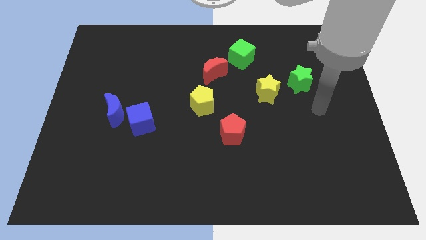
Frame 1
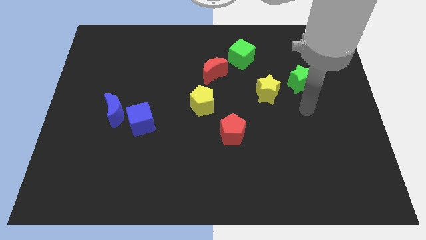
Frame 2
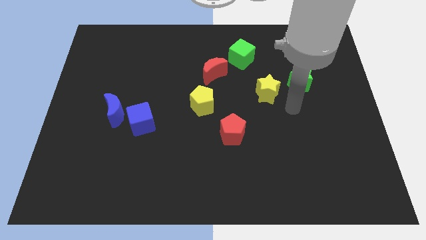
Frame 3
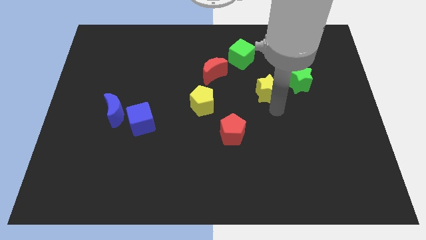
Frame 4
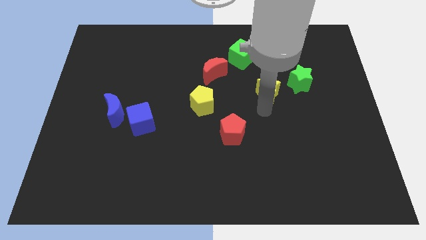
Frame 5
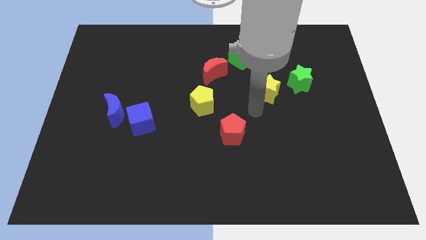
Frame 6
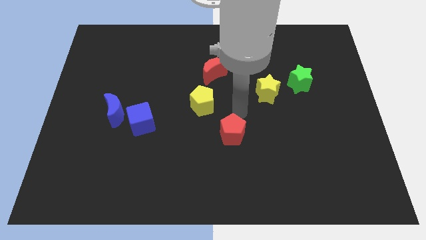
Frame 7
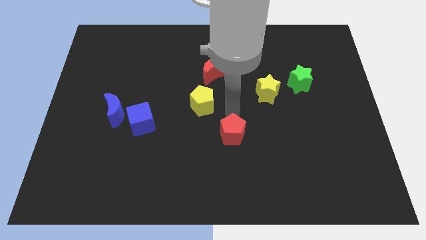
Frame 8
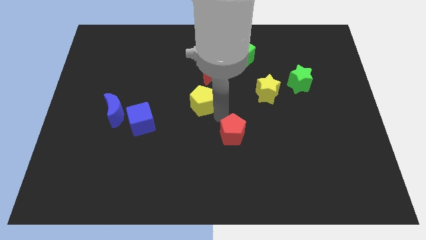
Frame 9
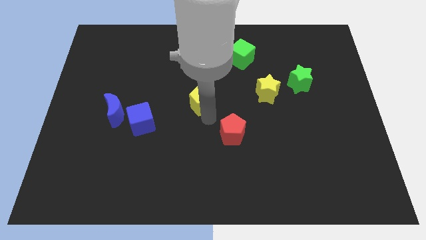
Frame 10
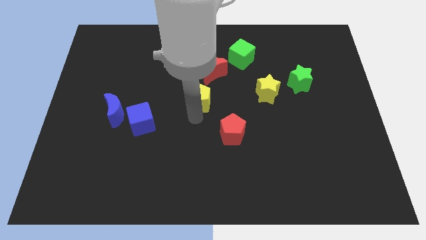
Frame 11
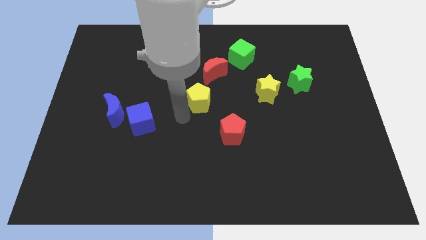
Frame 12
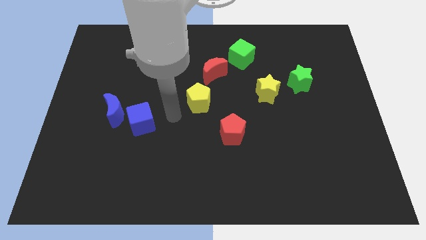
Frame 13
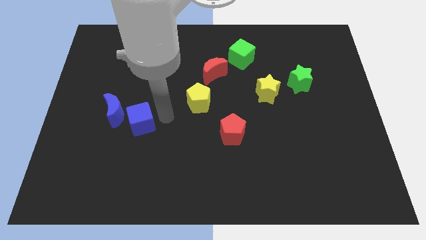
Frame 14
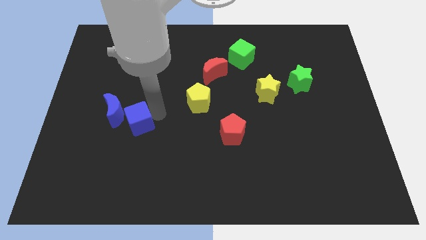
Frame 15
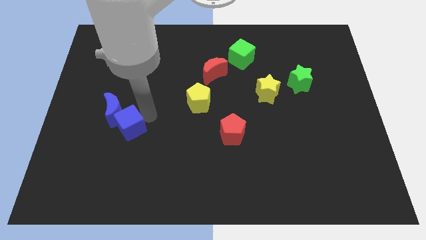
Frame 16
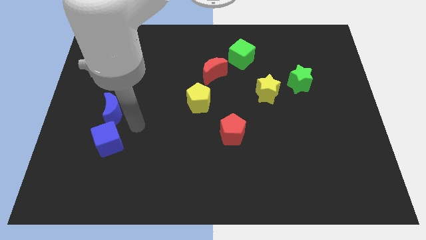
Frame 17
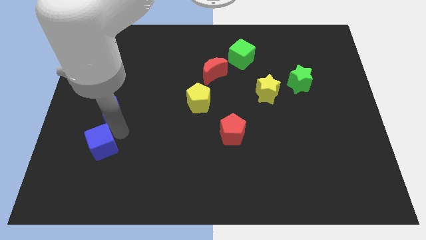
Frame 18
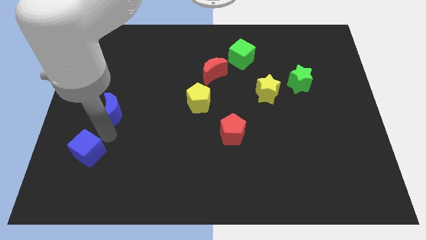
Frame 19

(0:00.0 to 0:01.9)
move the blue moon away from the blue cube

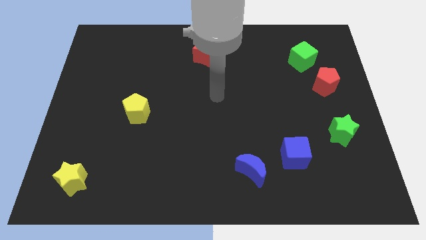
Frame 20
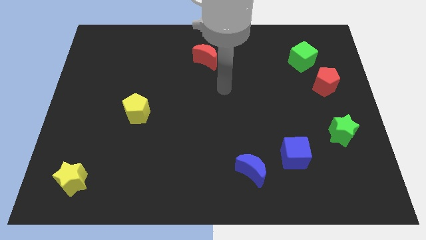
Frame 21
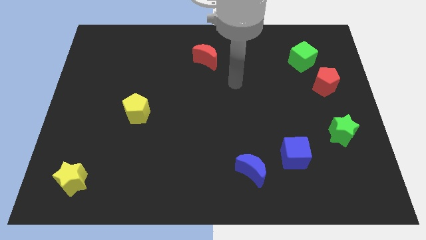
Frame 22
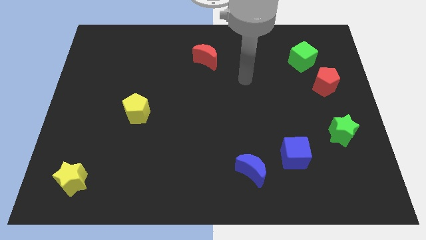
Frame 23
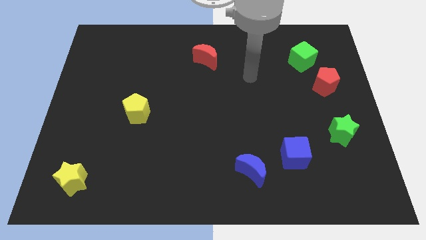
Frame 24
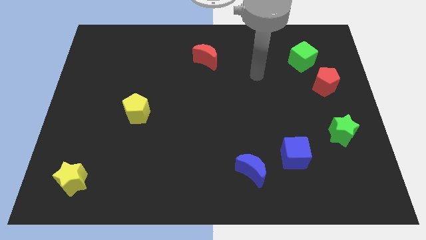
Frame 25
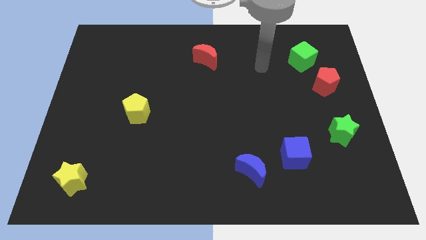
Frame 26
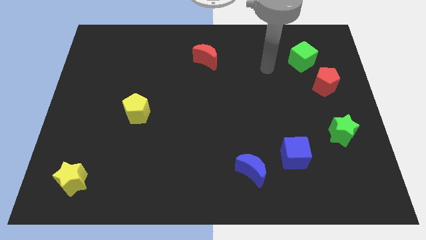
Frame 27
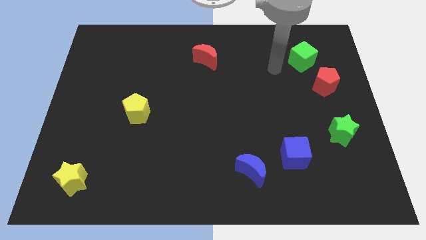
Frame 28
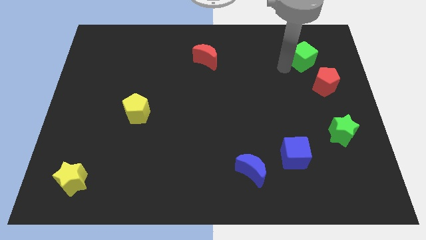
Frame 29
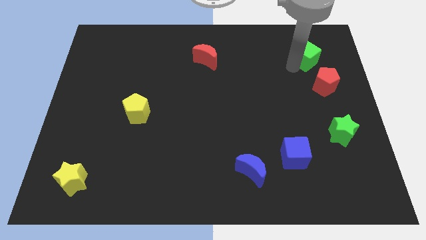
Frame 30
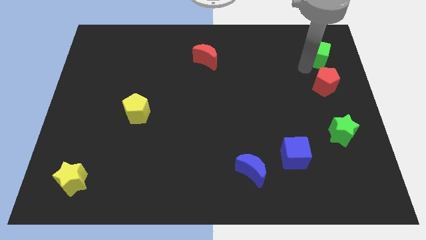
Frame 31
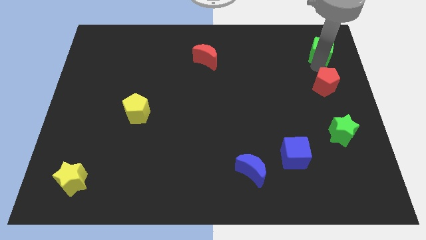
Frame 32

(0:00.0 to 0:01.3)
pull the red pentagon apart from the green cube

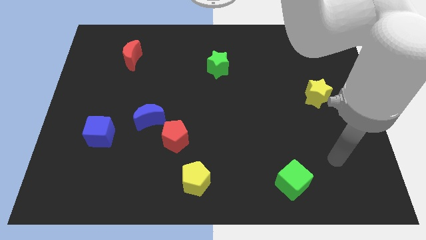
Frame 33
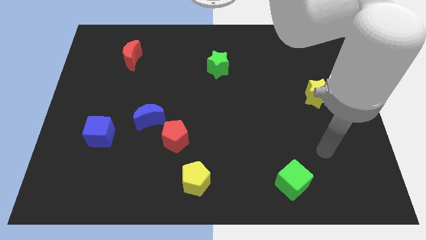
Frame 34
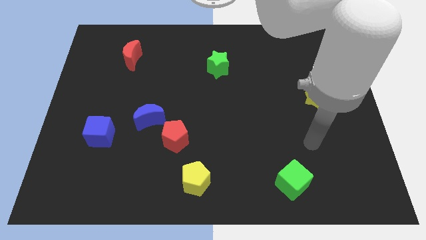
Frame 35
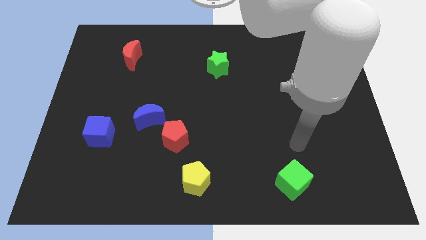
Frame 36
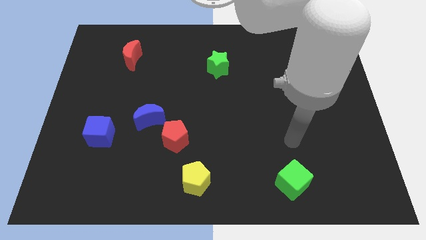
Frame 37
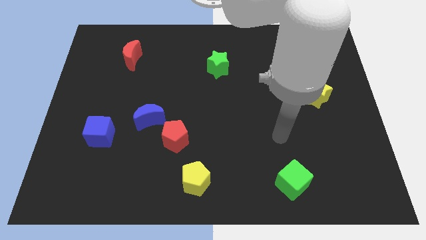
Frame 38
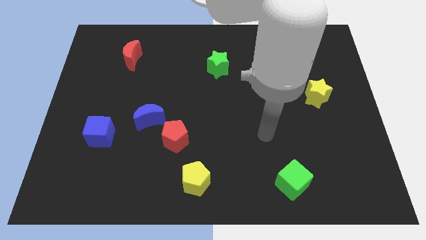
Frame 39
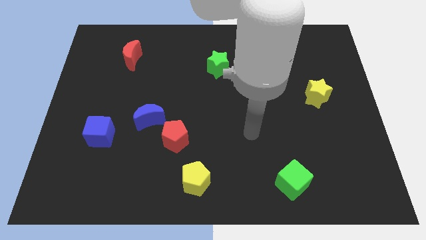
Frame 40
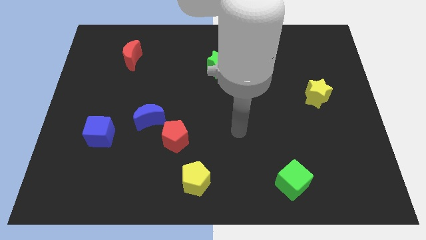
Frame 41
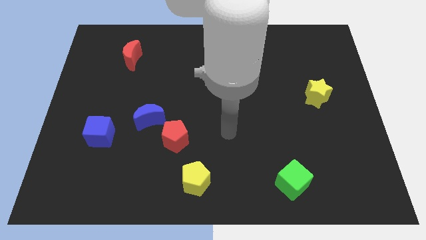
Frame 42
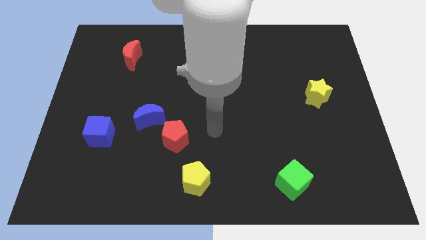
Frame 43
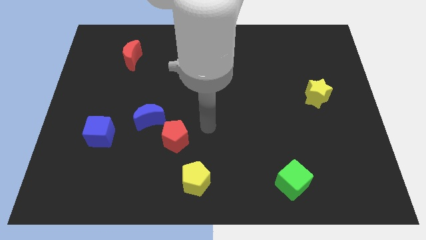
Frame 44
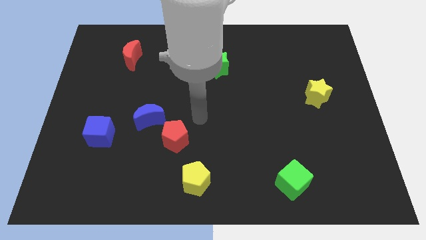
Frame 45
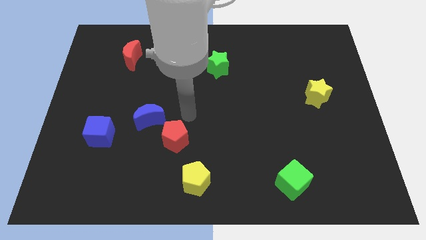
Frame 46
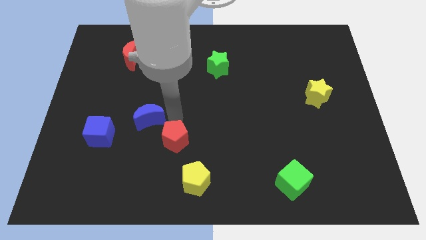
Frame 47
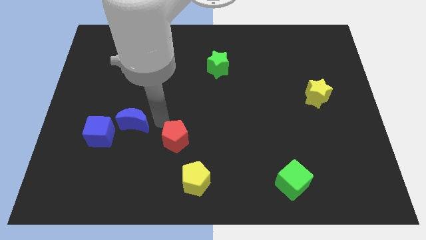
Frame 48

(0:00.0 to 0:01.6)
pull the red pentagon apart from the blue moon

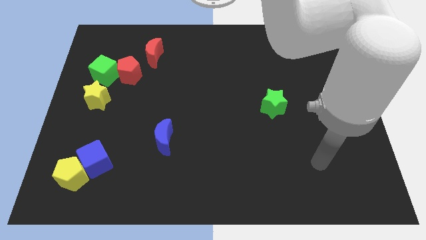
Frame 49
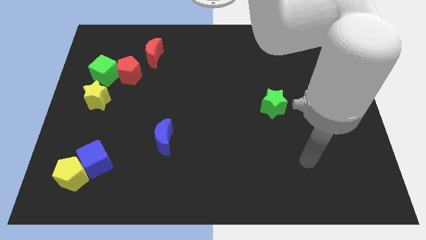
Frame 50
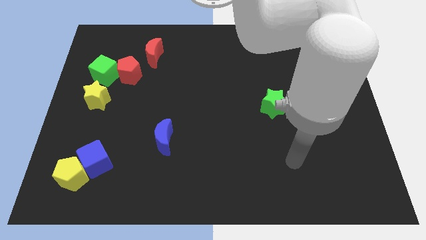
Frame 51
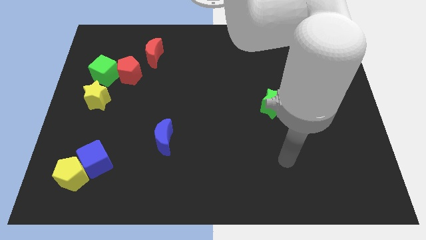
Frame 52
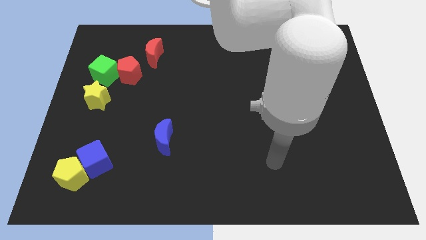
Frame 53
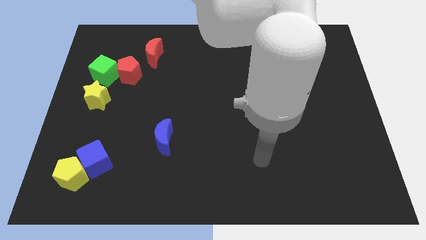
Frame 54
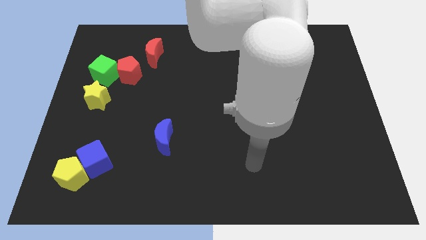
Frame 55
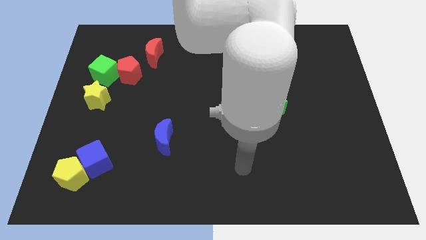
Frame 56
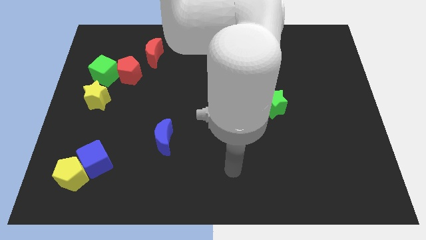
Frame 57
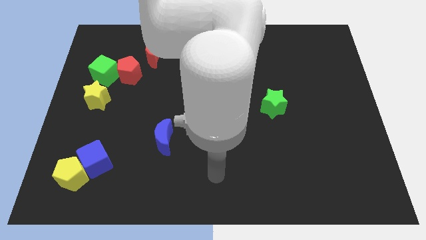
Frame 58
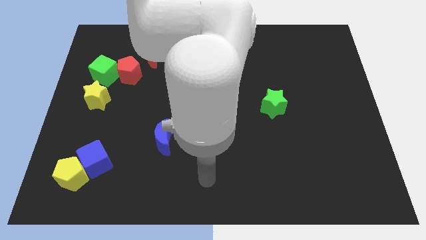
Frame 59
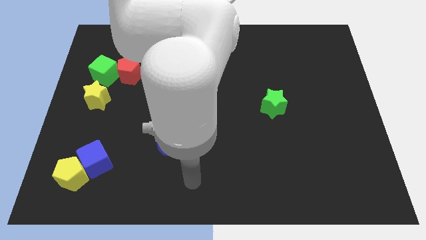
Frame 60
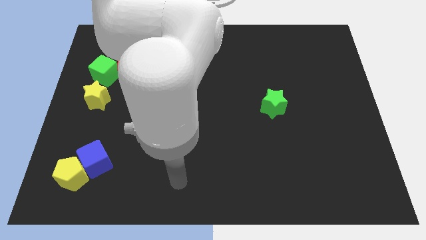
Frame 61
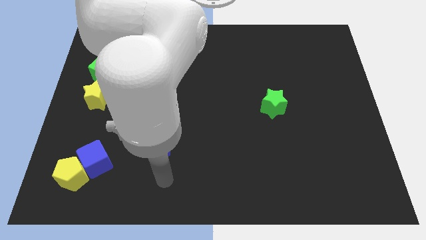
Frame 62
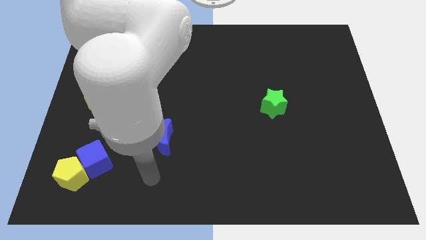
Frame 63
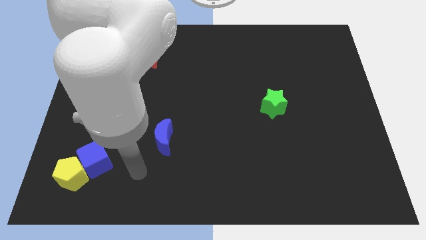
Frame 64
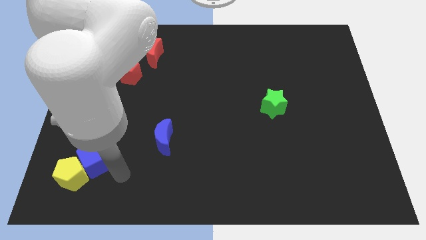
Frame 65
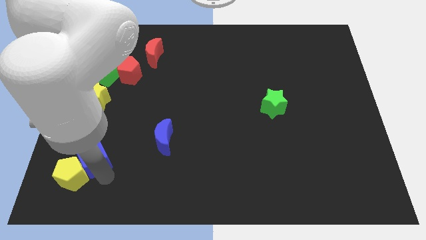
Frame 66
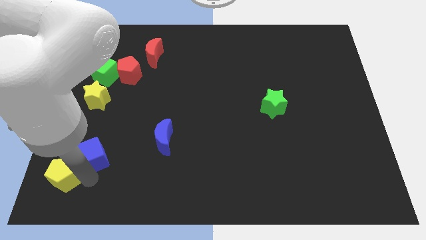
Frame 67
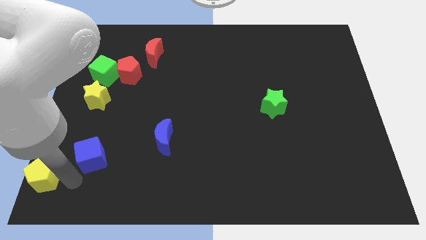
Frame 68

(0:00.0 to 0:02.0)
separate the blue cube from the yellow pentagon

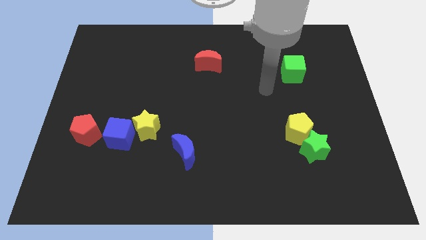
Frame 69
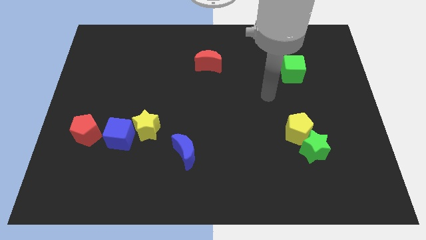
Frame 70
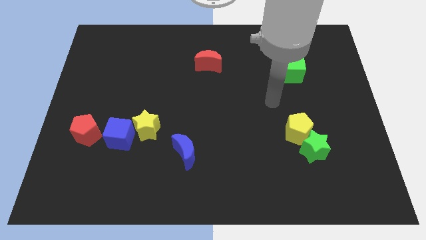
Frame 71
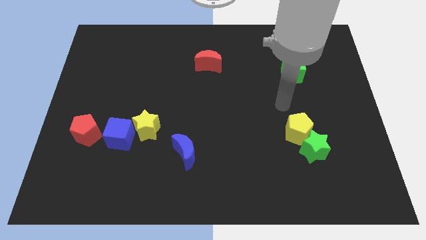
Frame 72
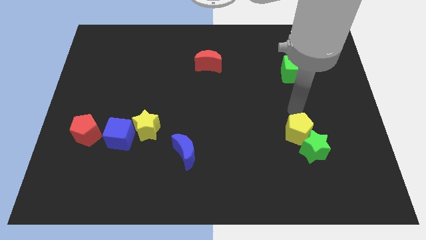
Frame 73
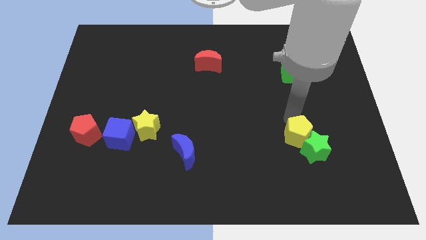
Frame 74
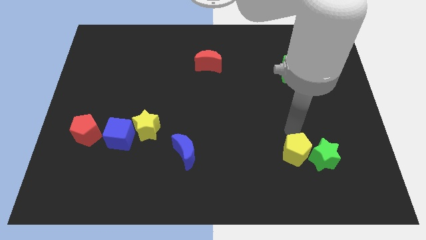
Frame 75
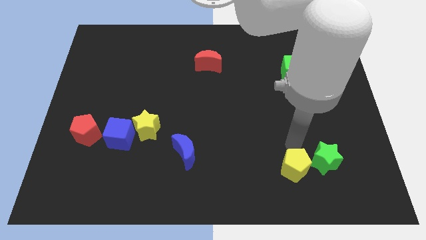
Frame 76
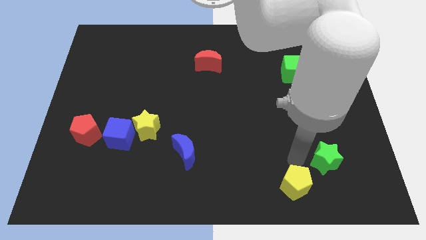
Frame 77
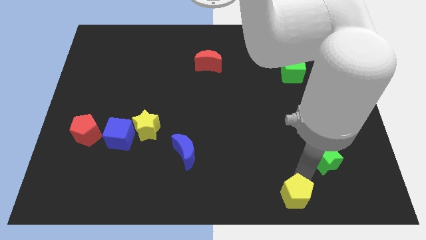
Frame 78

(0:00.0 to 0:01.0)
separate the green star from the yellow pentagon

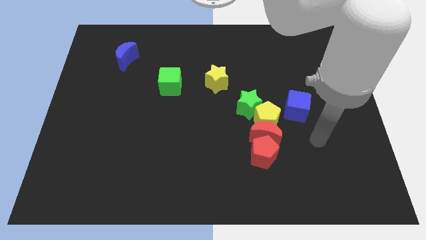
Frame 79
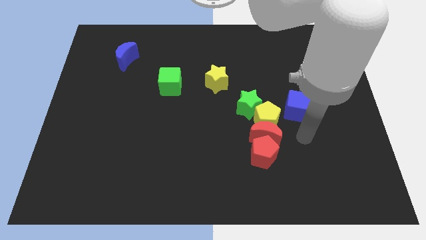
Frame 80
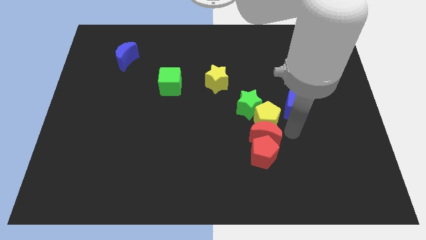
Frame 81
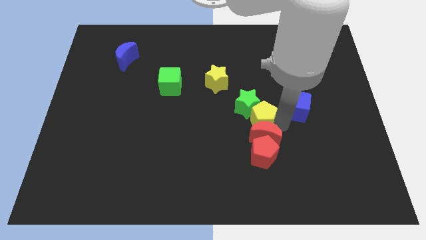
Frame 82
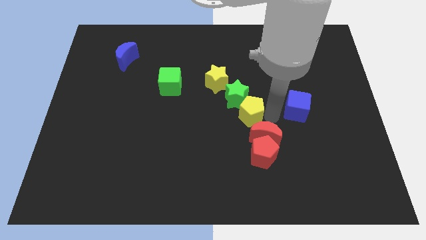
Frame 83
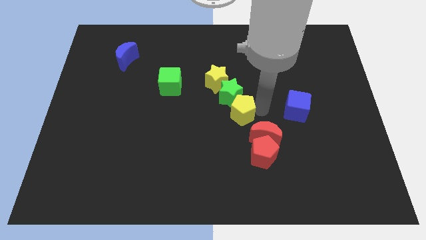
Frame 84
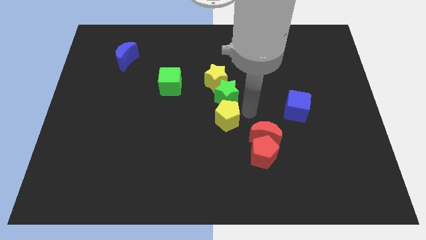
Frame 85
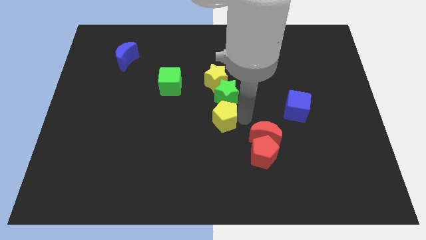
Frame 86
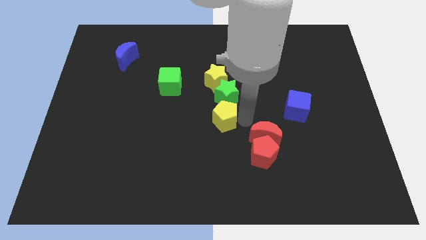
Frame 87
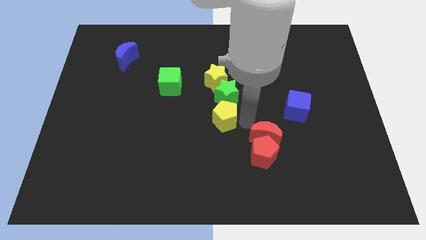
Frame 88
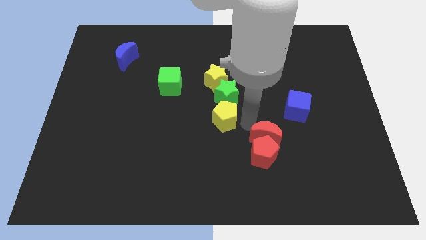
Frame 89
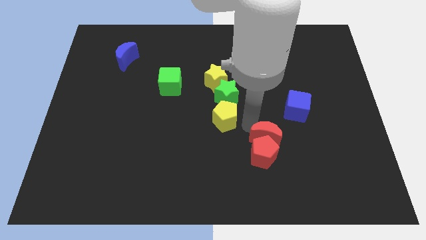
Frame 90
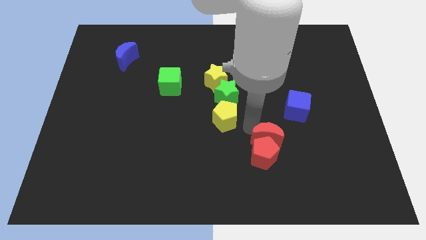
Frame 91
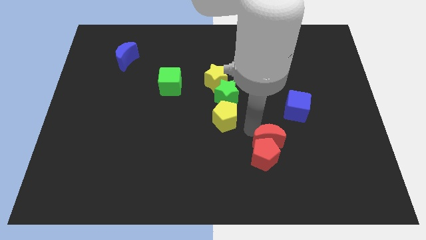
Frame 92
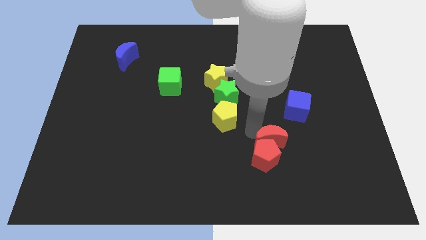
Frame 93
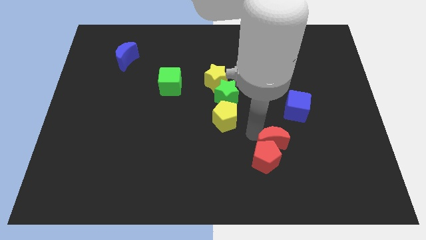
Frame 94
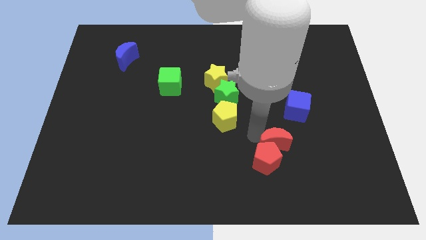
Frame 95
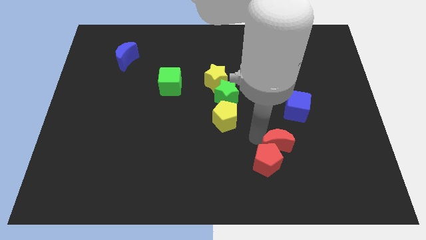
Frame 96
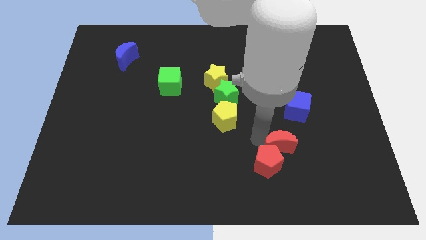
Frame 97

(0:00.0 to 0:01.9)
pull the red moon apart from the group
